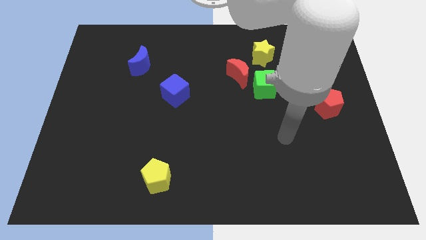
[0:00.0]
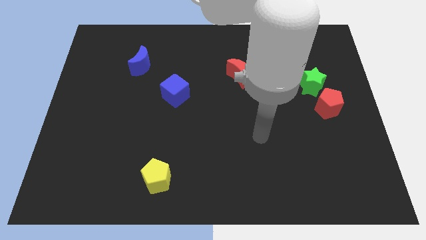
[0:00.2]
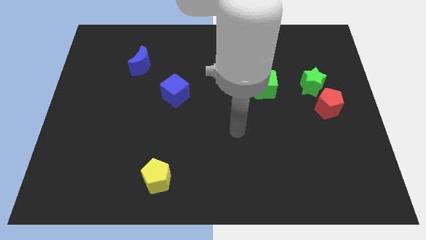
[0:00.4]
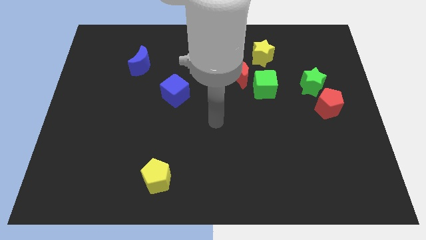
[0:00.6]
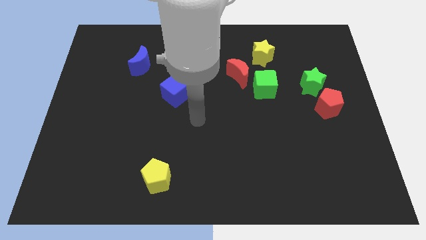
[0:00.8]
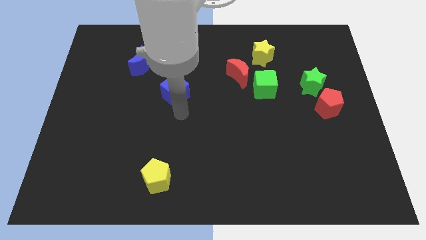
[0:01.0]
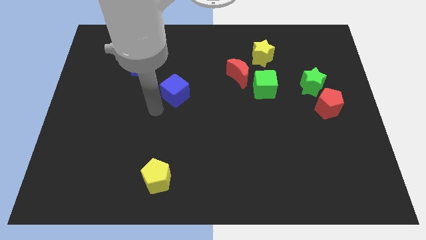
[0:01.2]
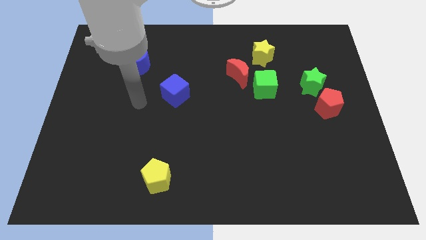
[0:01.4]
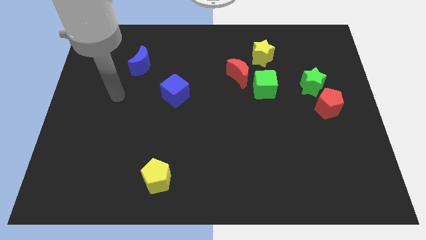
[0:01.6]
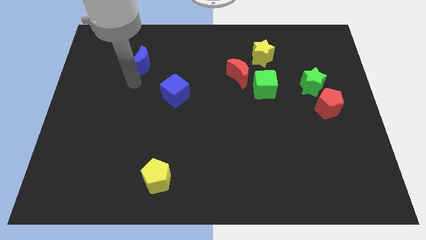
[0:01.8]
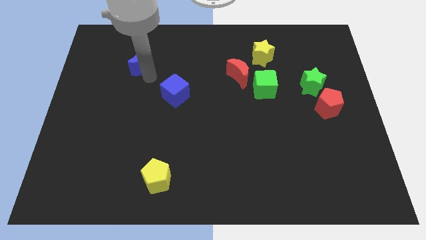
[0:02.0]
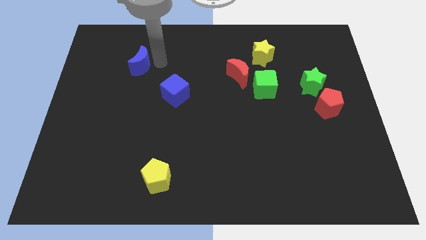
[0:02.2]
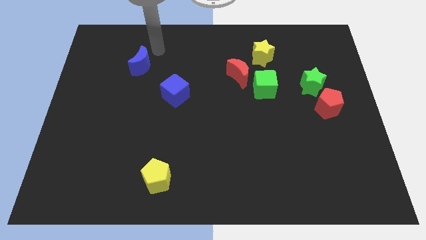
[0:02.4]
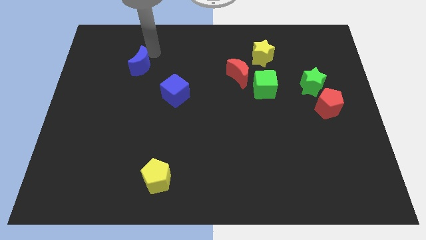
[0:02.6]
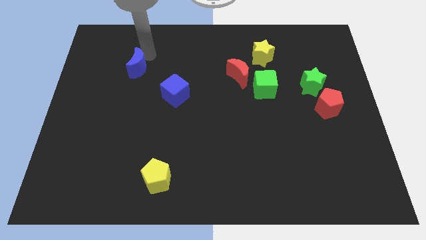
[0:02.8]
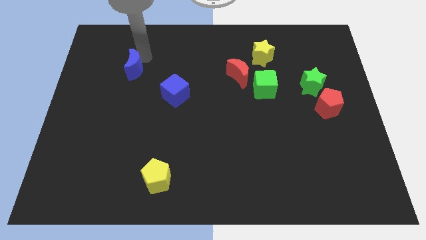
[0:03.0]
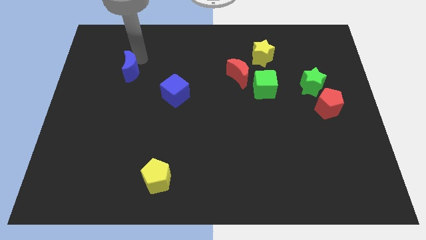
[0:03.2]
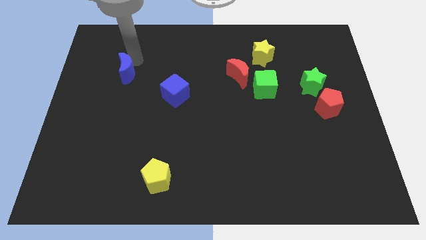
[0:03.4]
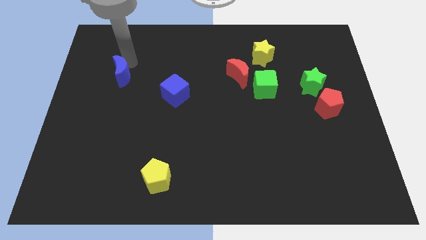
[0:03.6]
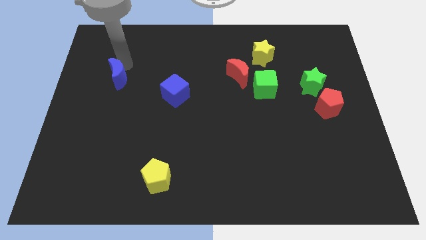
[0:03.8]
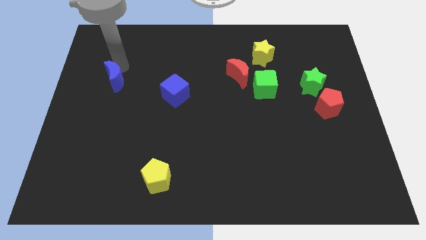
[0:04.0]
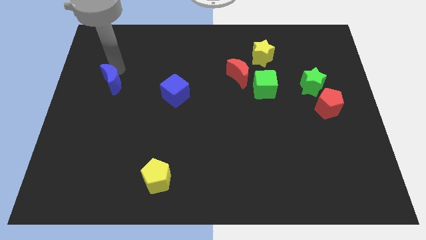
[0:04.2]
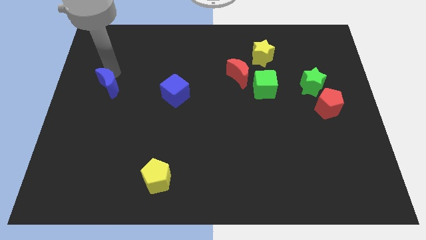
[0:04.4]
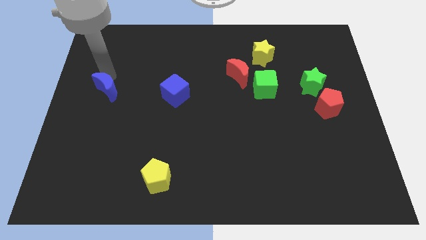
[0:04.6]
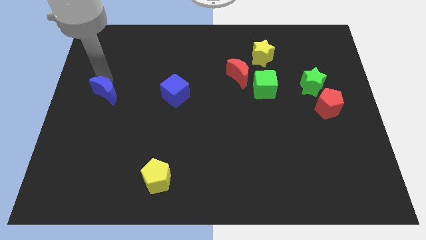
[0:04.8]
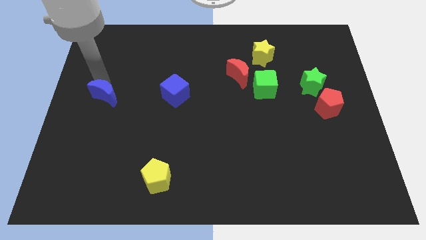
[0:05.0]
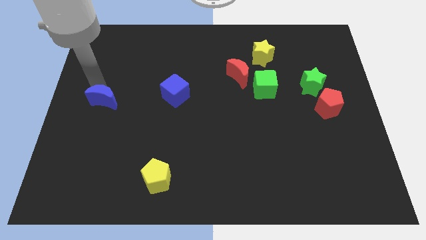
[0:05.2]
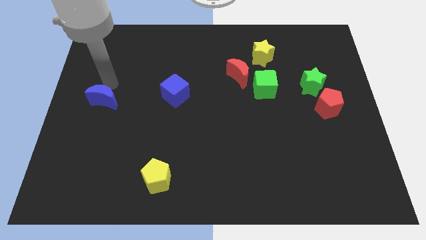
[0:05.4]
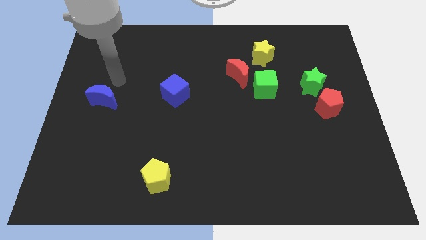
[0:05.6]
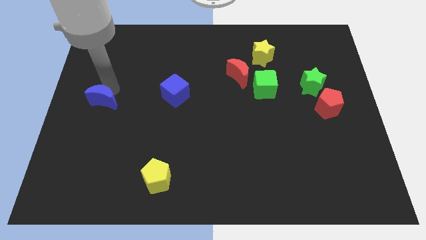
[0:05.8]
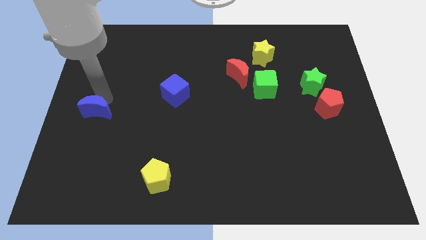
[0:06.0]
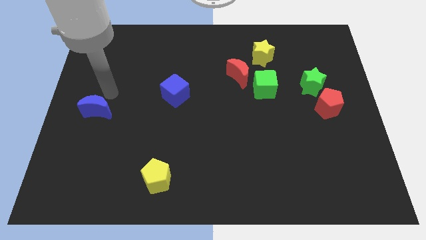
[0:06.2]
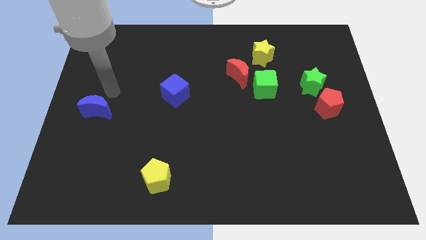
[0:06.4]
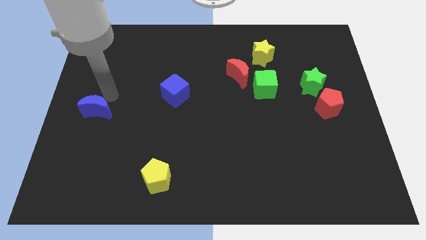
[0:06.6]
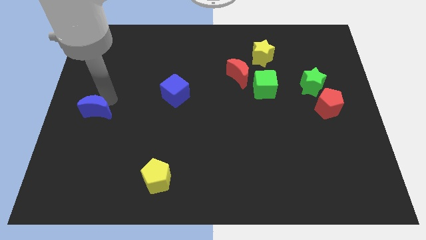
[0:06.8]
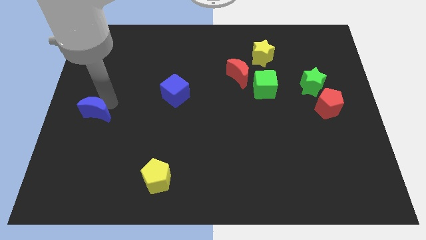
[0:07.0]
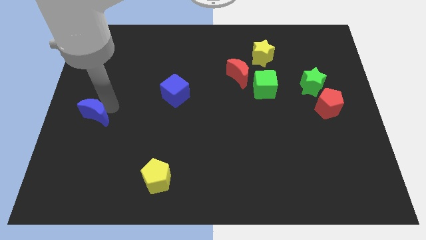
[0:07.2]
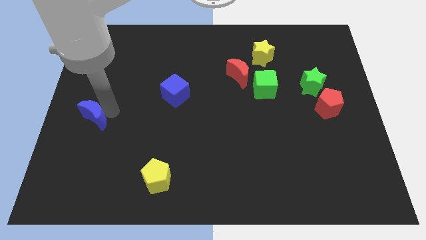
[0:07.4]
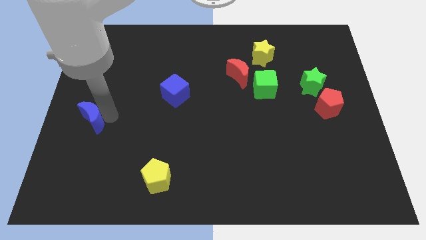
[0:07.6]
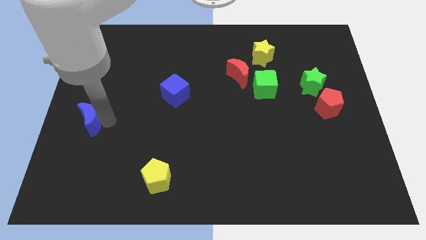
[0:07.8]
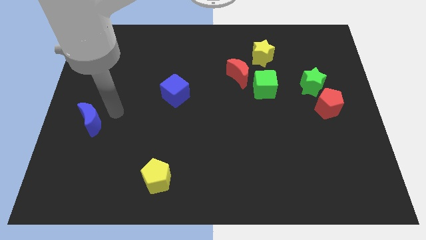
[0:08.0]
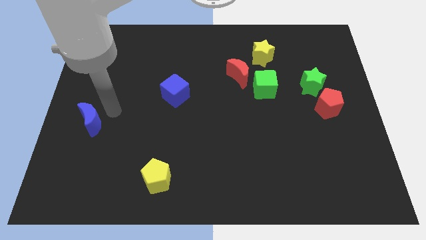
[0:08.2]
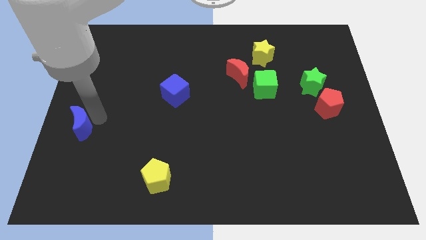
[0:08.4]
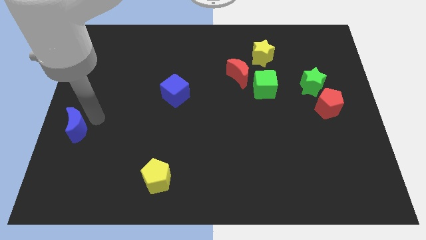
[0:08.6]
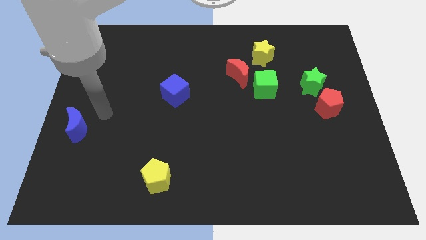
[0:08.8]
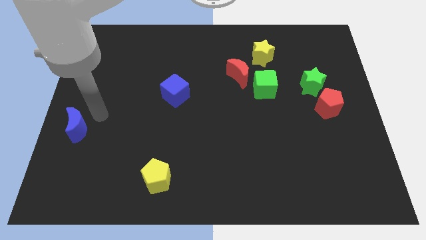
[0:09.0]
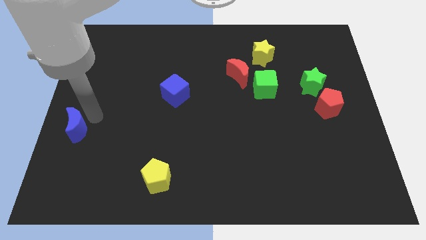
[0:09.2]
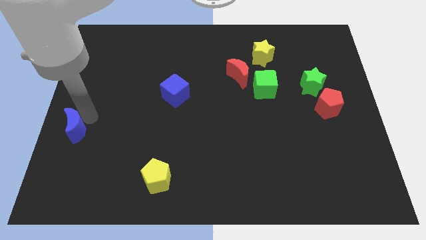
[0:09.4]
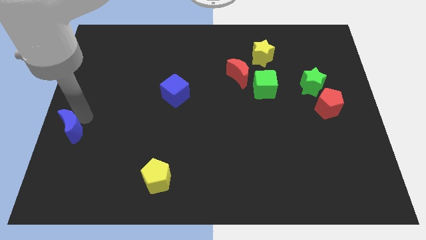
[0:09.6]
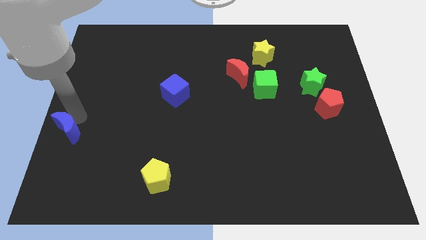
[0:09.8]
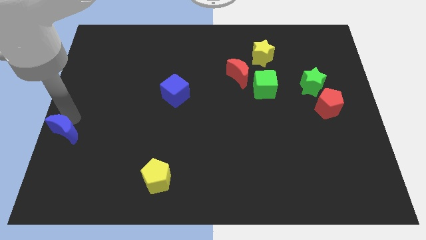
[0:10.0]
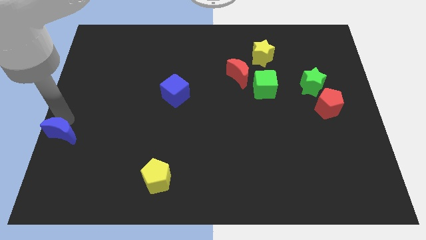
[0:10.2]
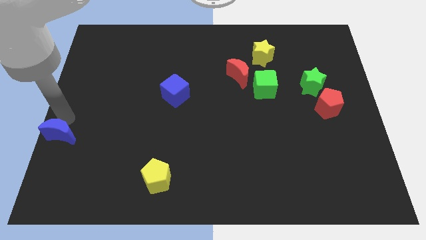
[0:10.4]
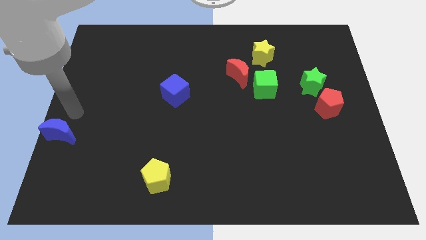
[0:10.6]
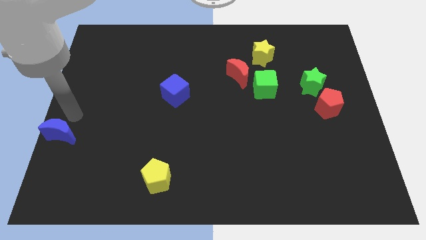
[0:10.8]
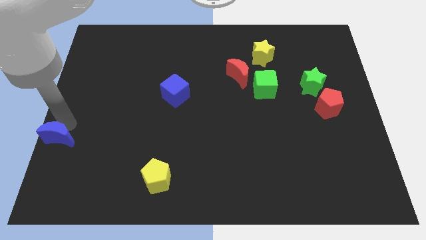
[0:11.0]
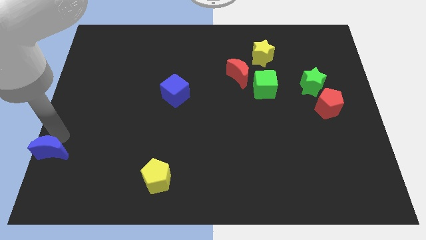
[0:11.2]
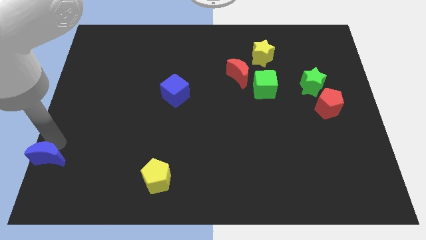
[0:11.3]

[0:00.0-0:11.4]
put the blue moon to the bottom left corner

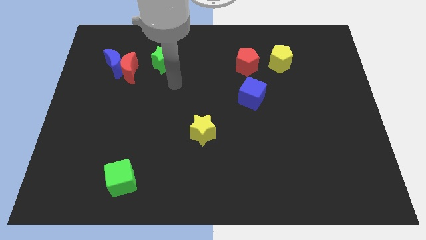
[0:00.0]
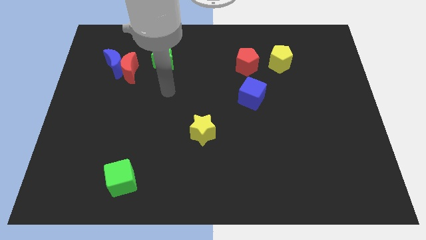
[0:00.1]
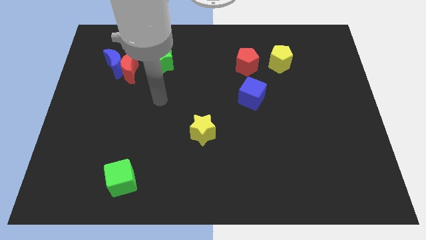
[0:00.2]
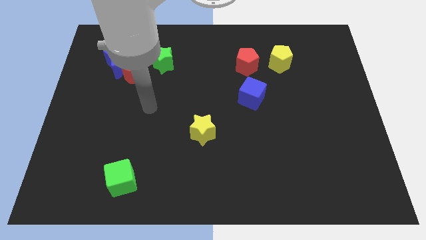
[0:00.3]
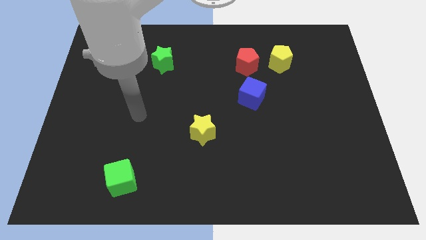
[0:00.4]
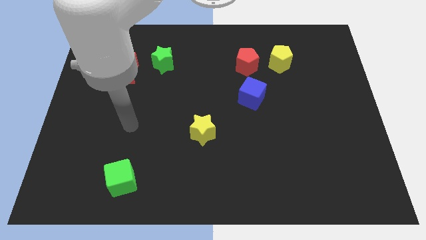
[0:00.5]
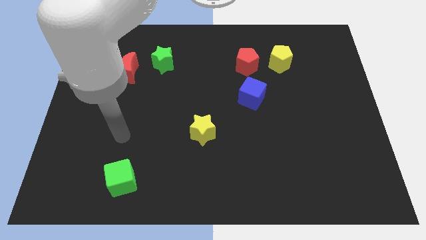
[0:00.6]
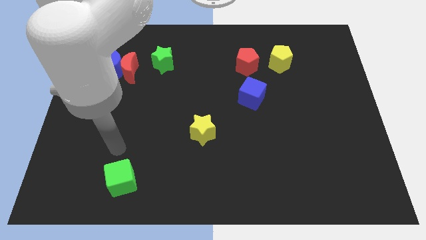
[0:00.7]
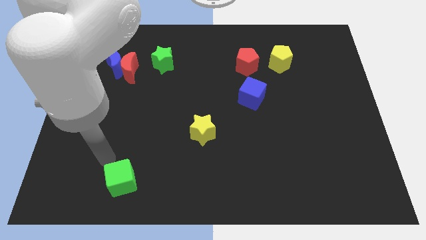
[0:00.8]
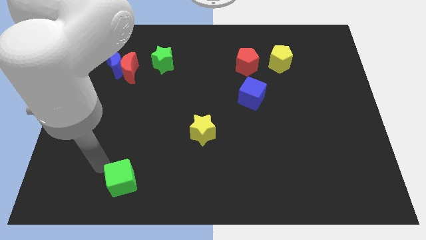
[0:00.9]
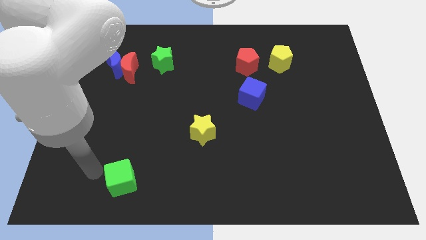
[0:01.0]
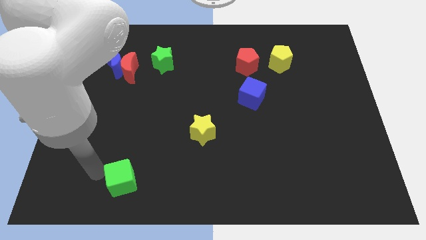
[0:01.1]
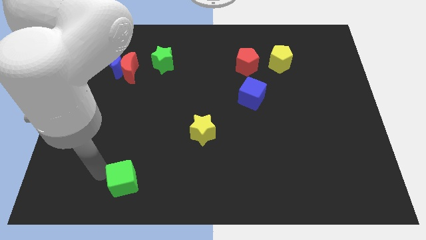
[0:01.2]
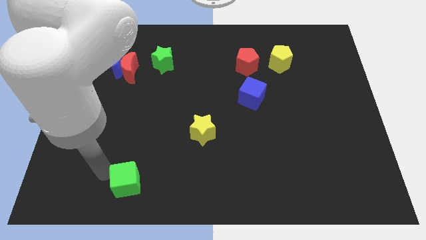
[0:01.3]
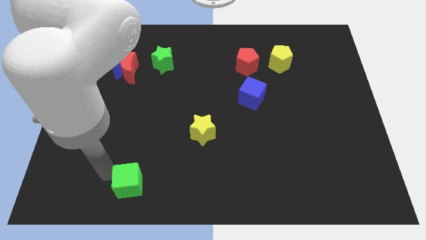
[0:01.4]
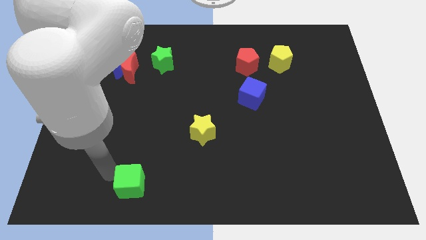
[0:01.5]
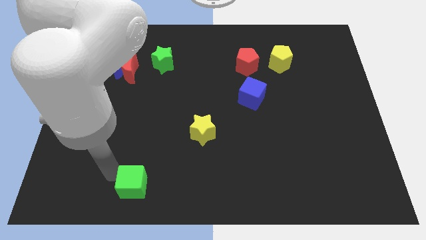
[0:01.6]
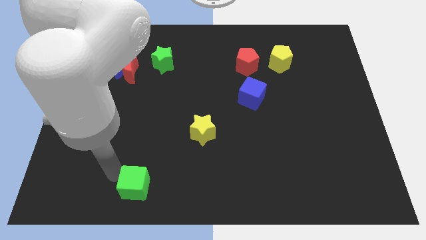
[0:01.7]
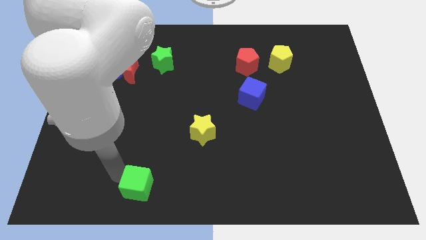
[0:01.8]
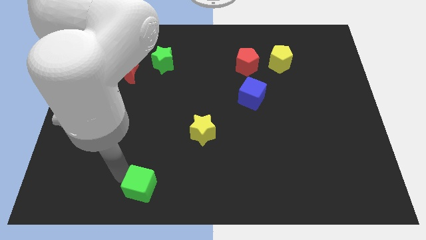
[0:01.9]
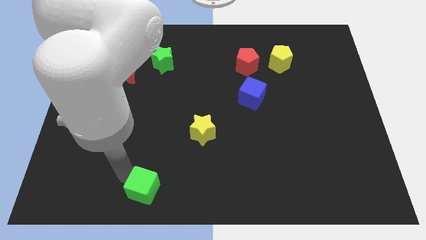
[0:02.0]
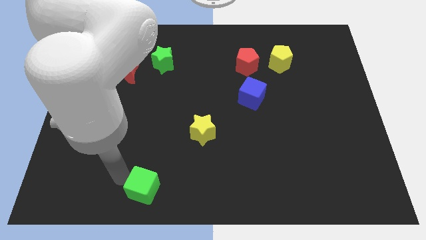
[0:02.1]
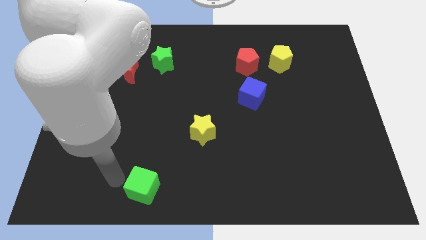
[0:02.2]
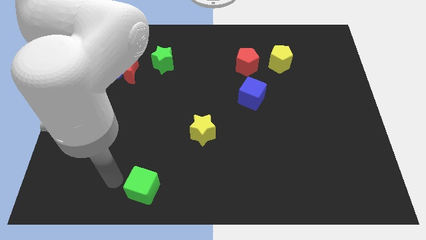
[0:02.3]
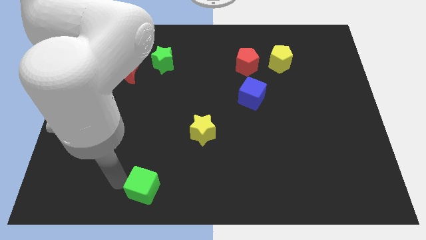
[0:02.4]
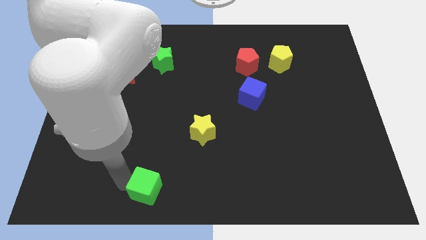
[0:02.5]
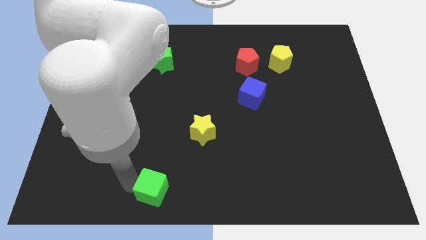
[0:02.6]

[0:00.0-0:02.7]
move the green cube to the bottom side
